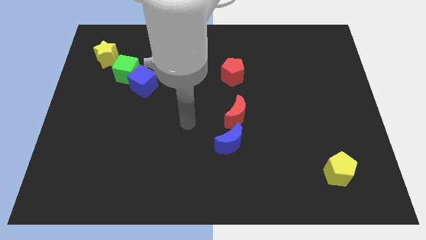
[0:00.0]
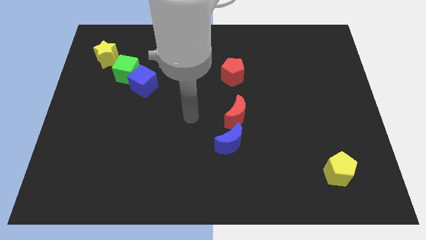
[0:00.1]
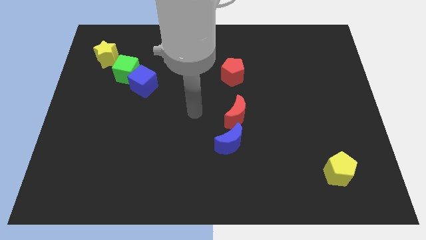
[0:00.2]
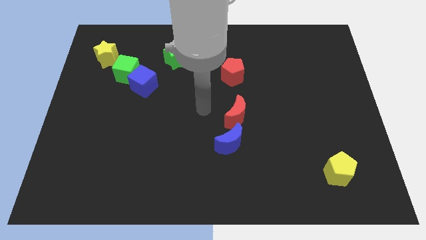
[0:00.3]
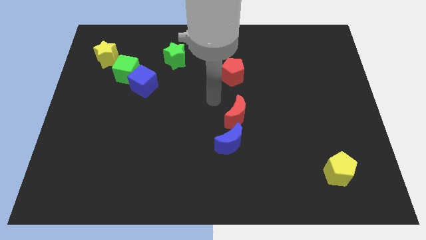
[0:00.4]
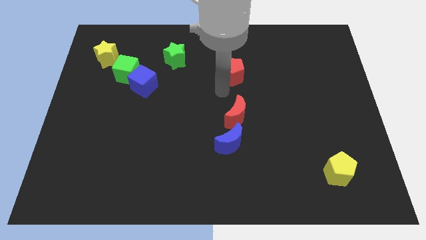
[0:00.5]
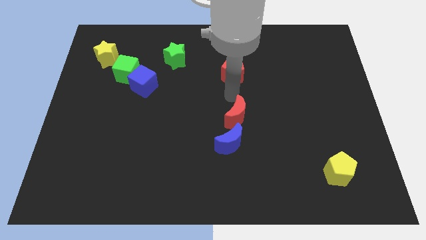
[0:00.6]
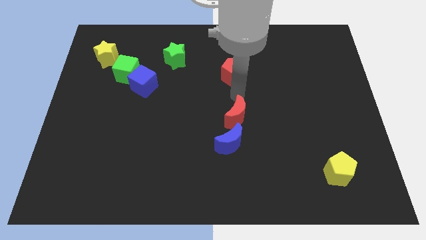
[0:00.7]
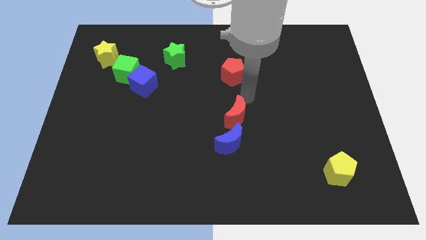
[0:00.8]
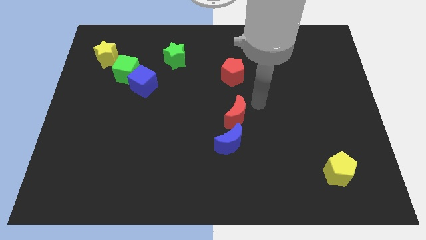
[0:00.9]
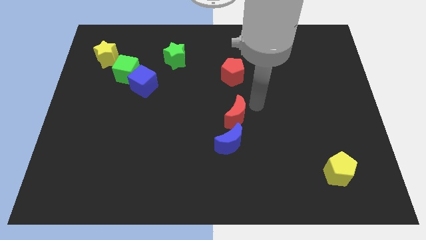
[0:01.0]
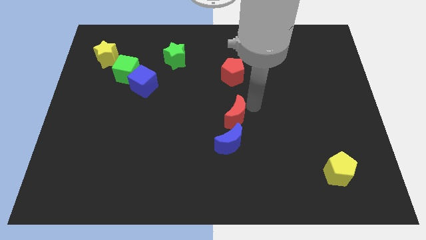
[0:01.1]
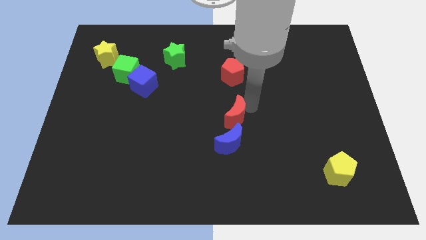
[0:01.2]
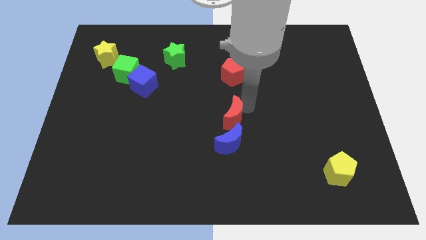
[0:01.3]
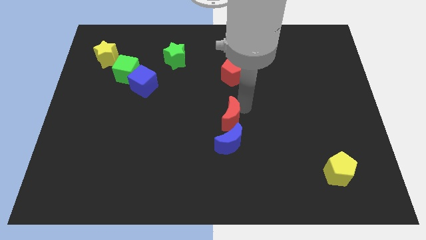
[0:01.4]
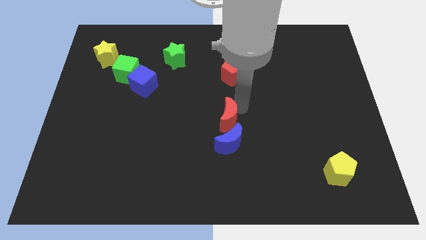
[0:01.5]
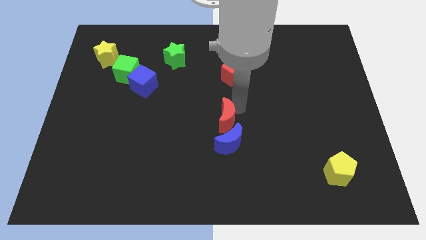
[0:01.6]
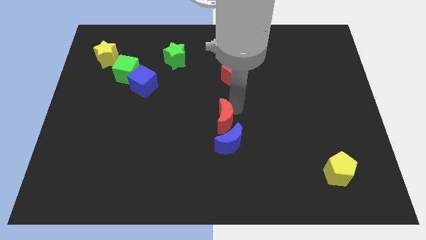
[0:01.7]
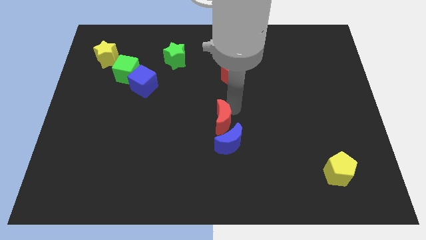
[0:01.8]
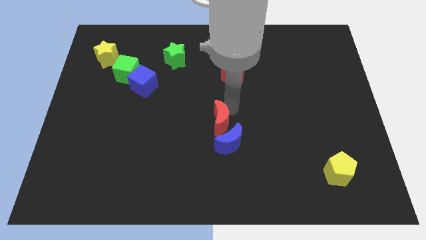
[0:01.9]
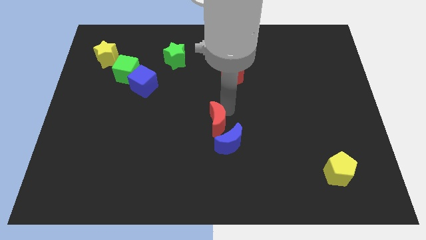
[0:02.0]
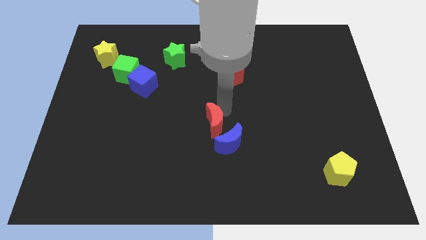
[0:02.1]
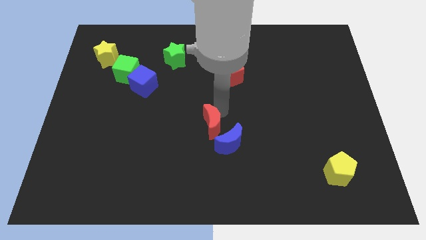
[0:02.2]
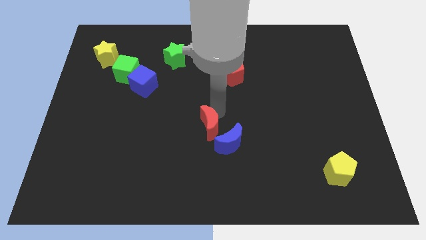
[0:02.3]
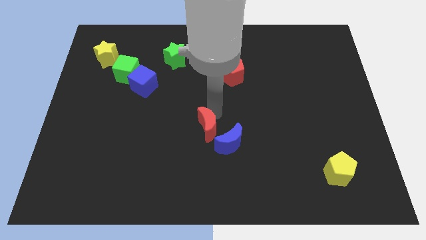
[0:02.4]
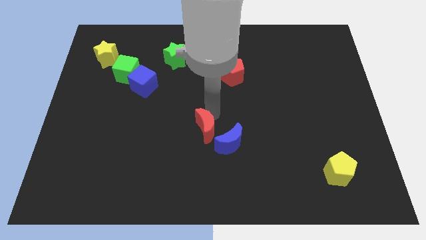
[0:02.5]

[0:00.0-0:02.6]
slide the red moon a little bit down and then left

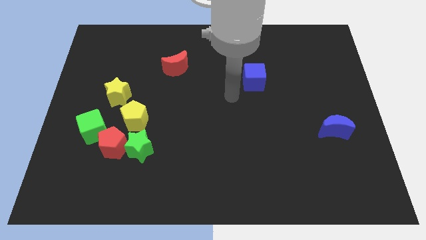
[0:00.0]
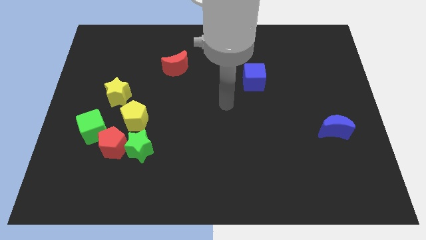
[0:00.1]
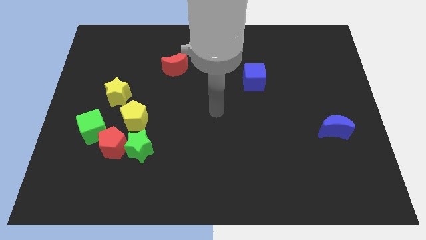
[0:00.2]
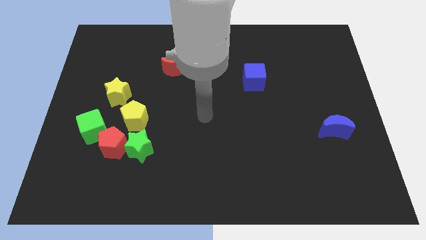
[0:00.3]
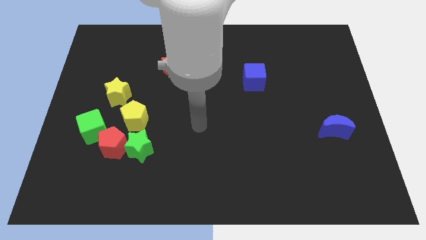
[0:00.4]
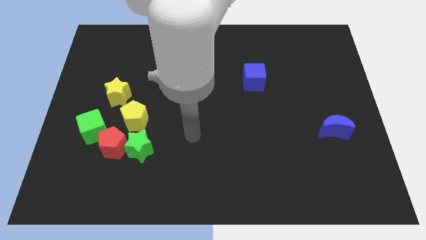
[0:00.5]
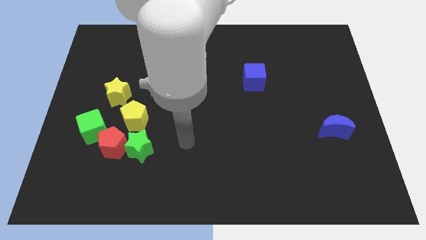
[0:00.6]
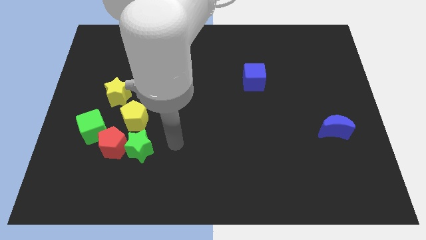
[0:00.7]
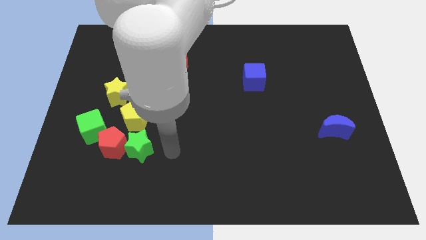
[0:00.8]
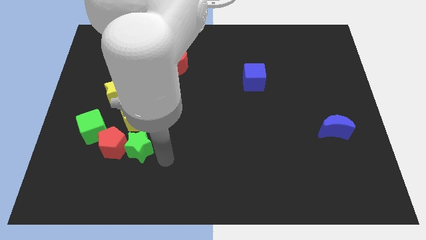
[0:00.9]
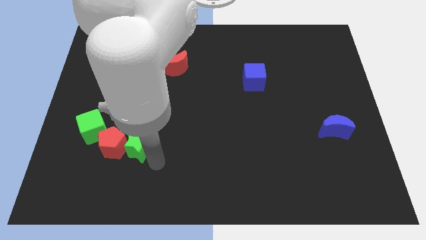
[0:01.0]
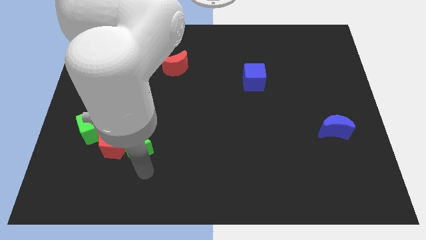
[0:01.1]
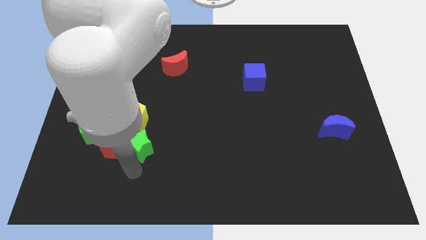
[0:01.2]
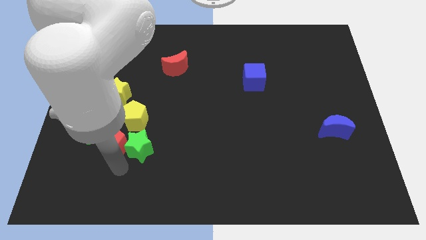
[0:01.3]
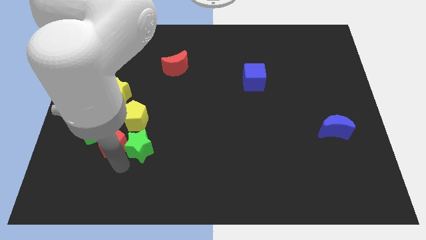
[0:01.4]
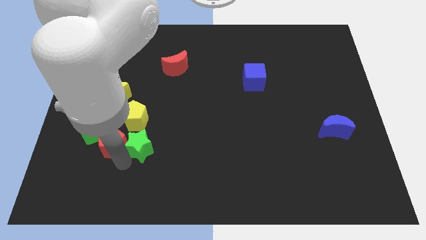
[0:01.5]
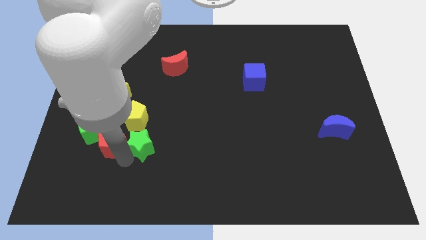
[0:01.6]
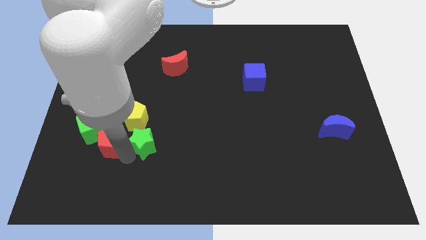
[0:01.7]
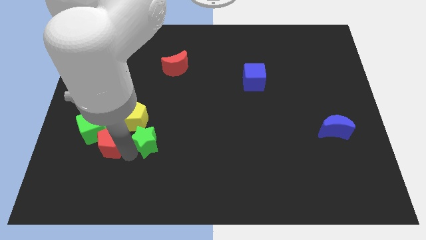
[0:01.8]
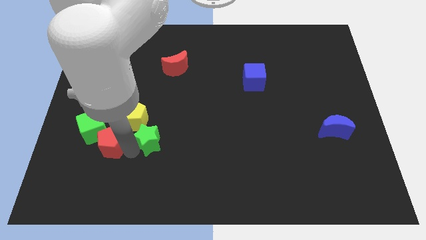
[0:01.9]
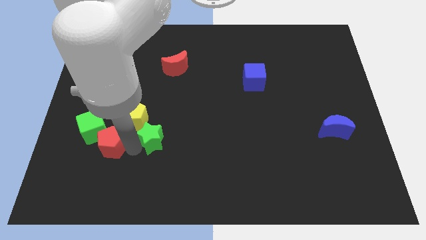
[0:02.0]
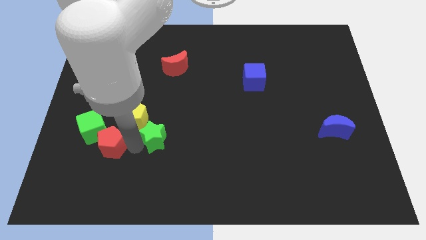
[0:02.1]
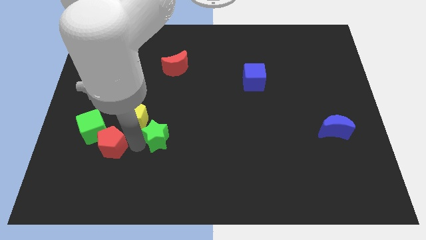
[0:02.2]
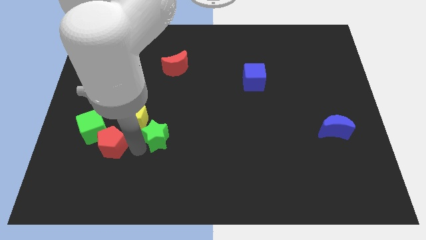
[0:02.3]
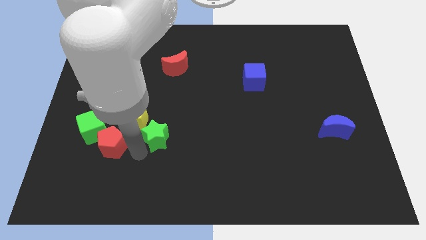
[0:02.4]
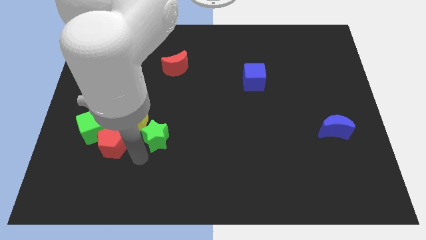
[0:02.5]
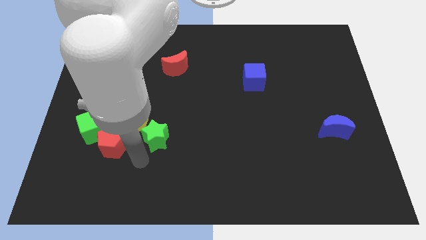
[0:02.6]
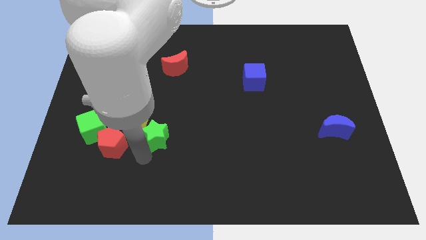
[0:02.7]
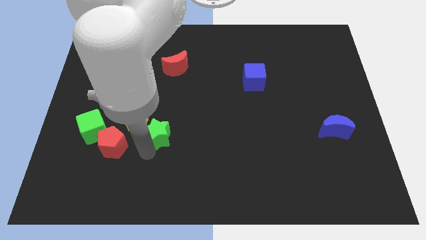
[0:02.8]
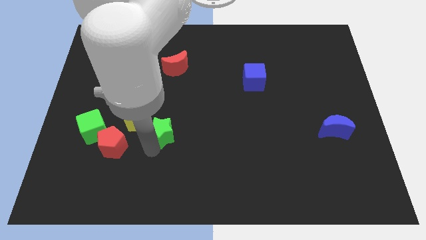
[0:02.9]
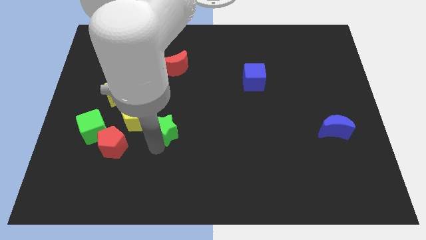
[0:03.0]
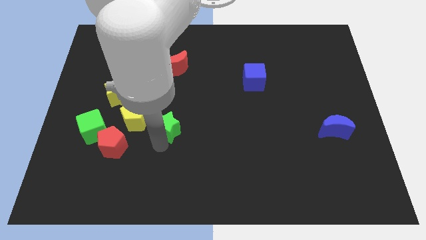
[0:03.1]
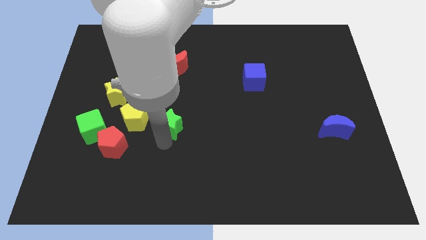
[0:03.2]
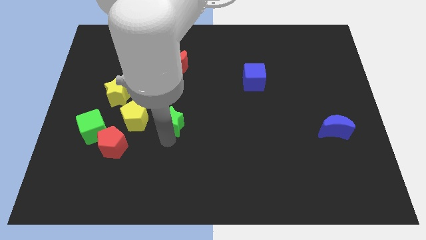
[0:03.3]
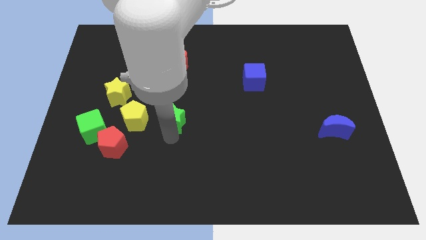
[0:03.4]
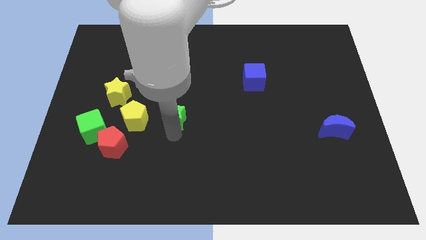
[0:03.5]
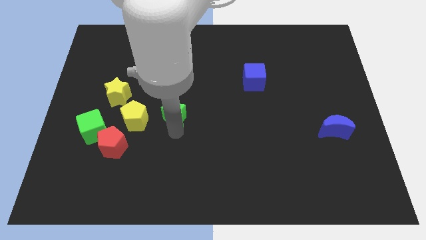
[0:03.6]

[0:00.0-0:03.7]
slightly push the green star up

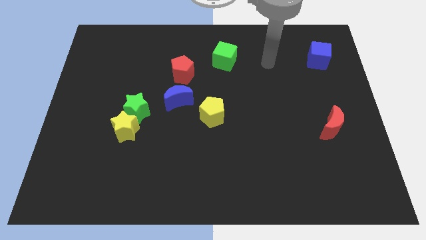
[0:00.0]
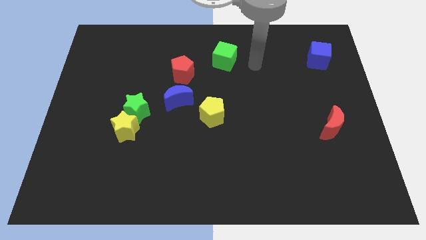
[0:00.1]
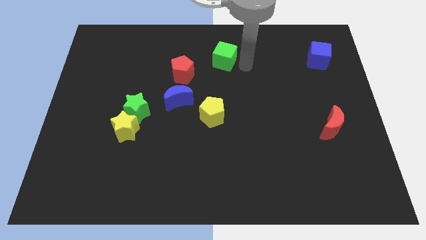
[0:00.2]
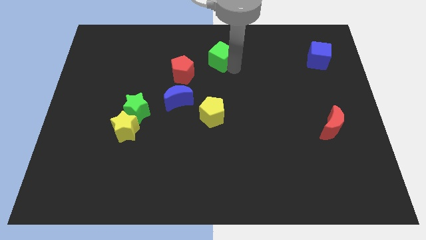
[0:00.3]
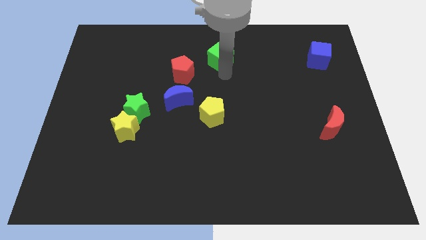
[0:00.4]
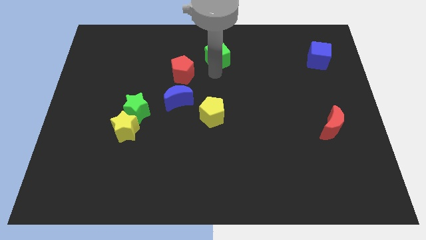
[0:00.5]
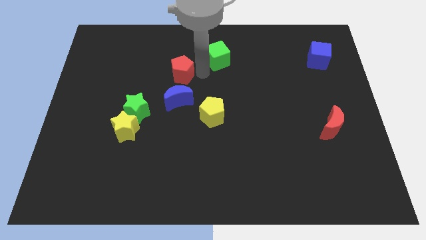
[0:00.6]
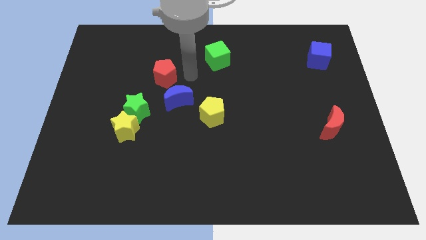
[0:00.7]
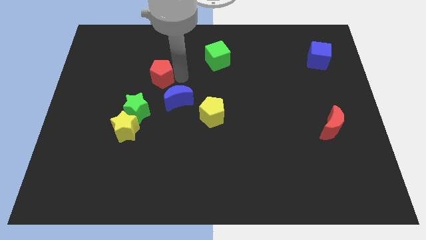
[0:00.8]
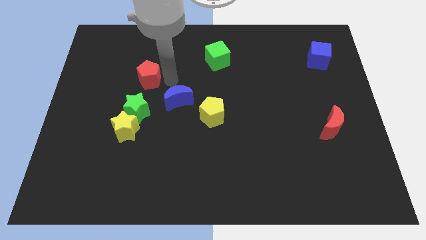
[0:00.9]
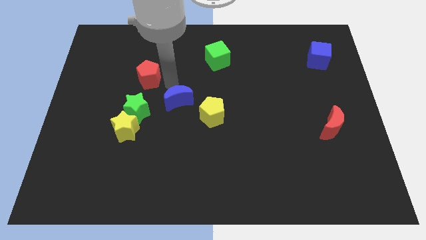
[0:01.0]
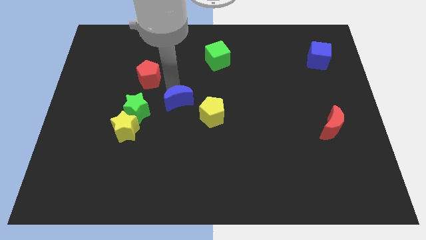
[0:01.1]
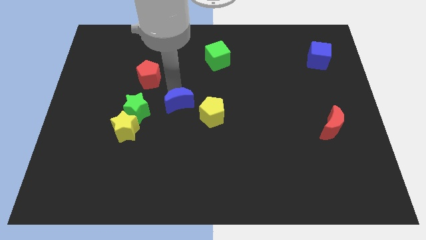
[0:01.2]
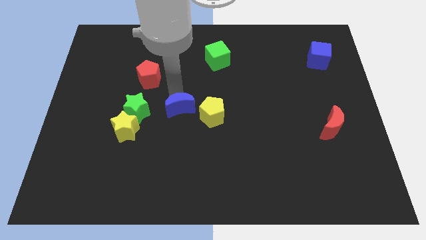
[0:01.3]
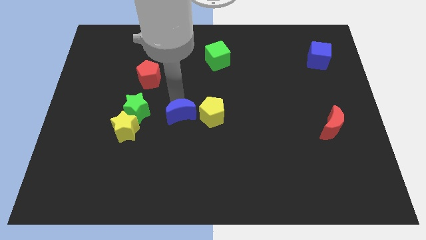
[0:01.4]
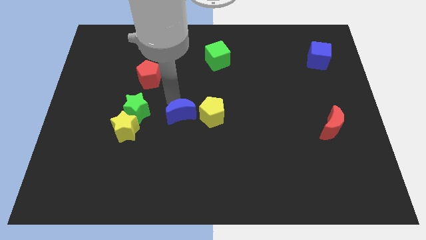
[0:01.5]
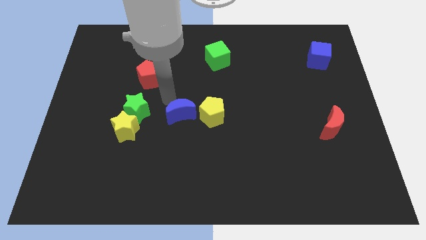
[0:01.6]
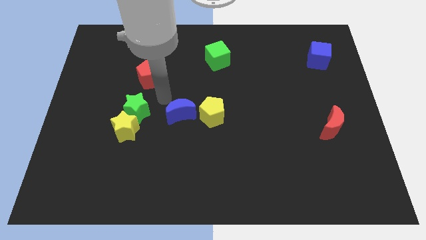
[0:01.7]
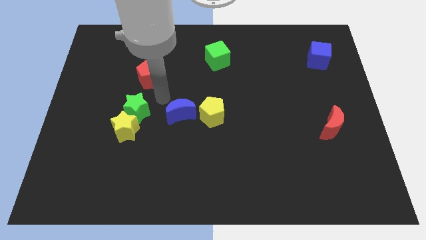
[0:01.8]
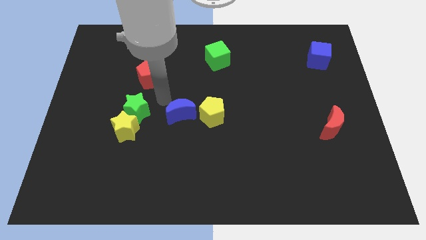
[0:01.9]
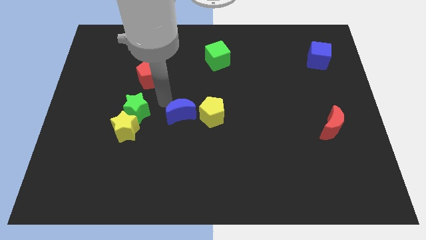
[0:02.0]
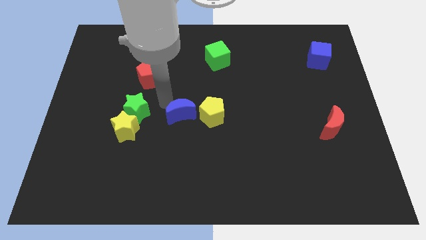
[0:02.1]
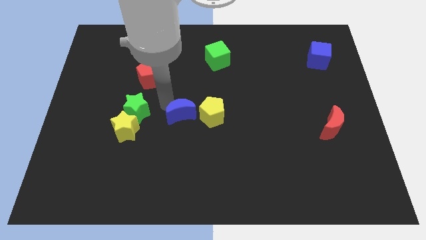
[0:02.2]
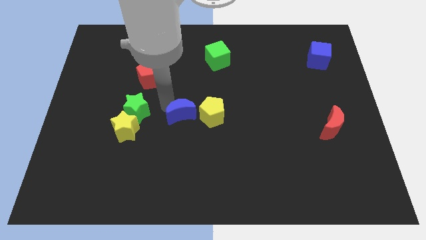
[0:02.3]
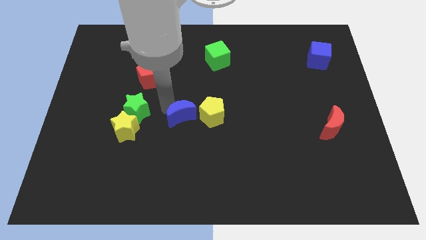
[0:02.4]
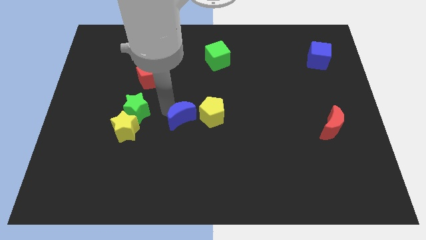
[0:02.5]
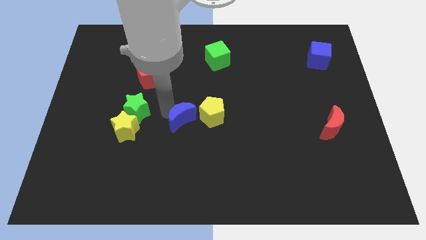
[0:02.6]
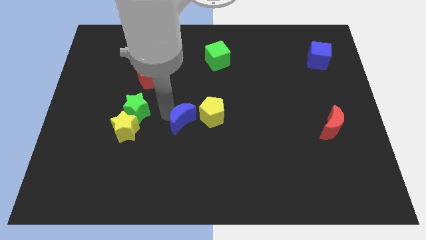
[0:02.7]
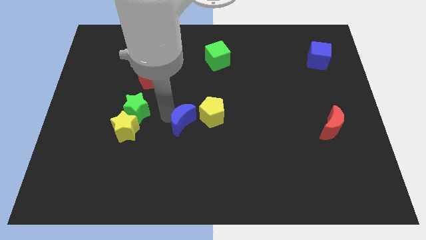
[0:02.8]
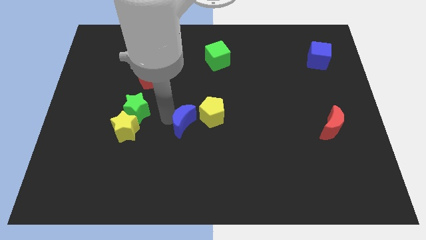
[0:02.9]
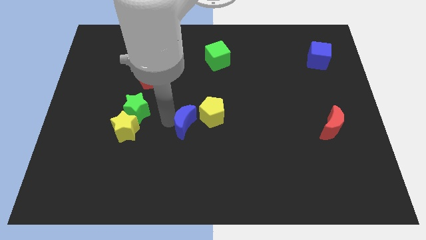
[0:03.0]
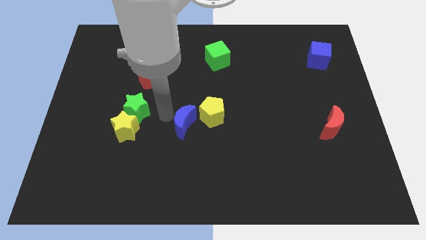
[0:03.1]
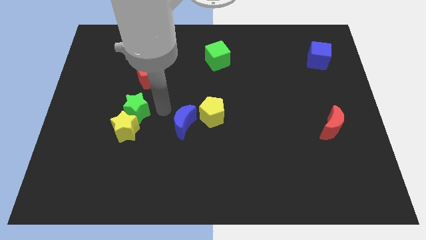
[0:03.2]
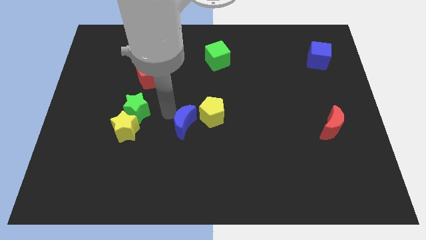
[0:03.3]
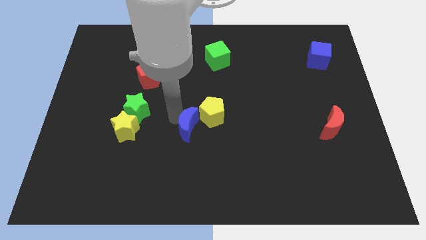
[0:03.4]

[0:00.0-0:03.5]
move the blue moon a little down and then right
